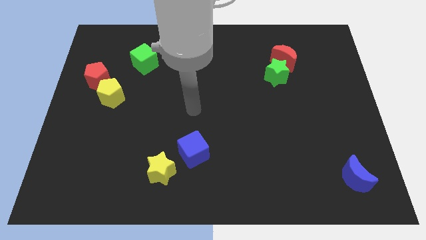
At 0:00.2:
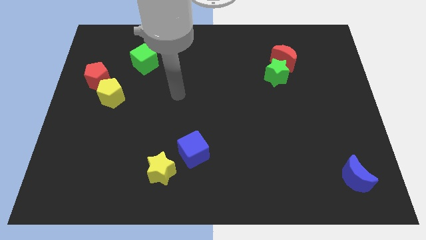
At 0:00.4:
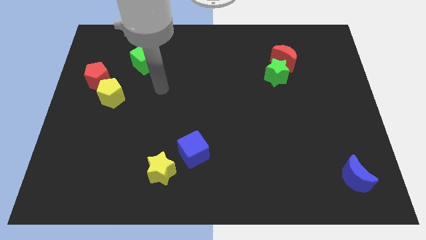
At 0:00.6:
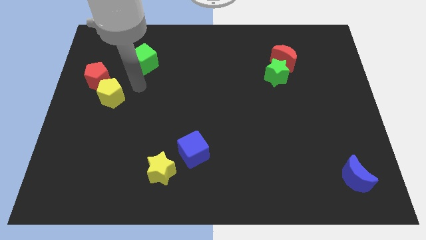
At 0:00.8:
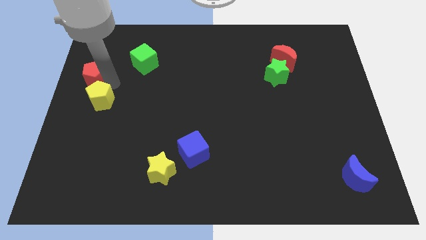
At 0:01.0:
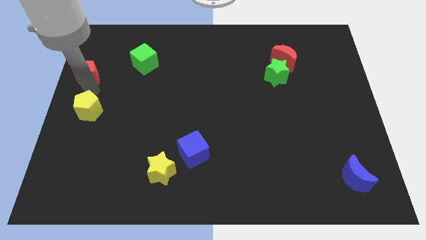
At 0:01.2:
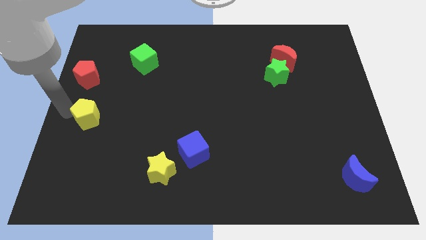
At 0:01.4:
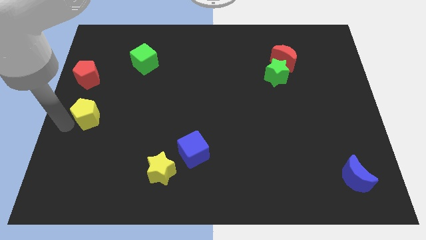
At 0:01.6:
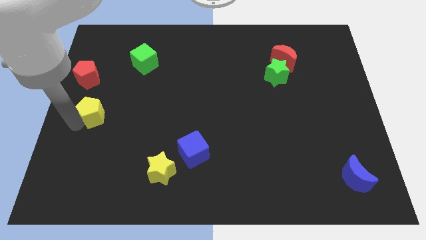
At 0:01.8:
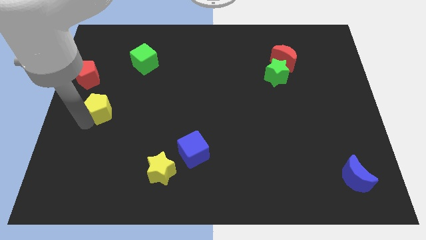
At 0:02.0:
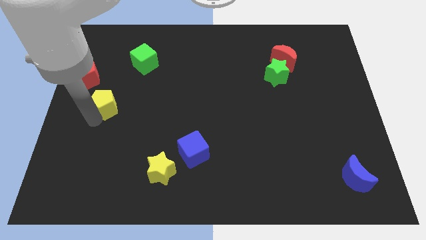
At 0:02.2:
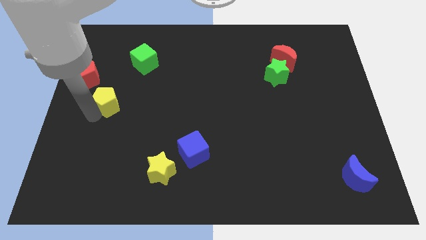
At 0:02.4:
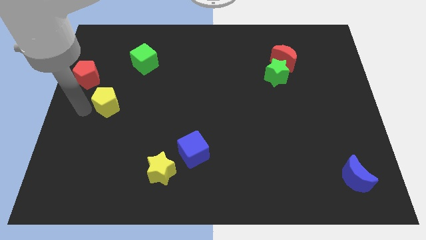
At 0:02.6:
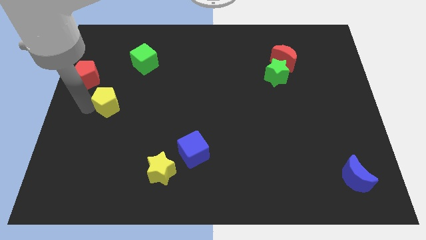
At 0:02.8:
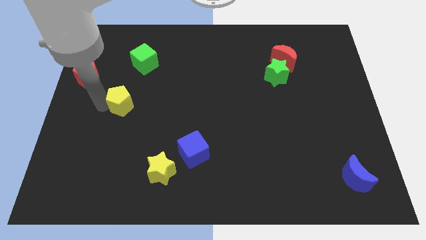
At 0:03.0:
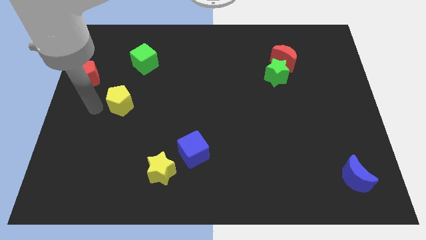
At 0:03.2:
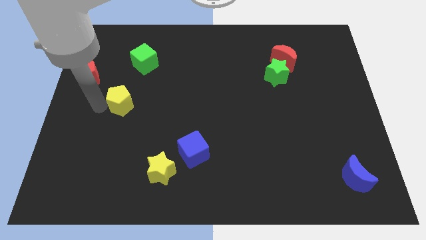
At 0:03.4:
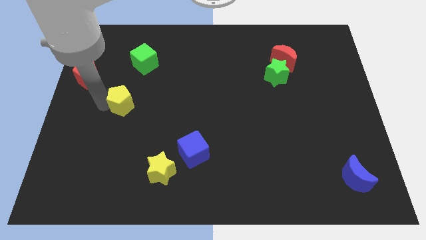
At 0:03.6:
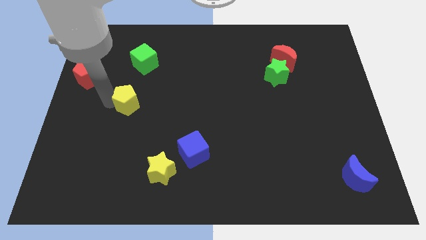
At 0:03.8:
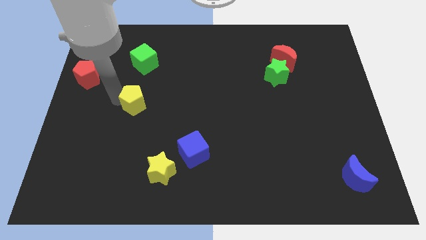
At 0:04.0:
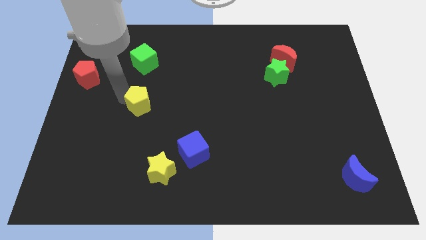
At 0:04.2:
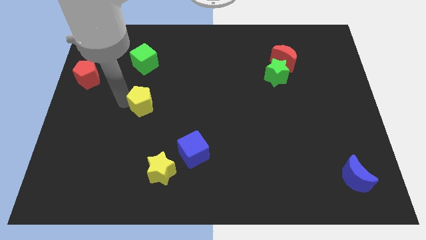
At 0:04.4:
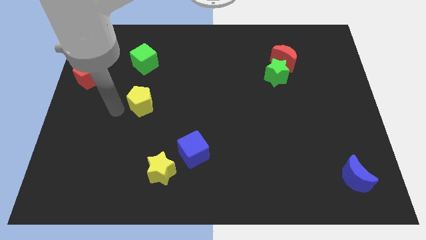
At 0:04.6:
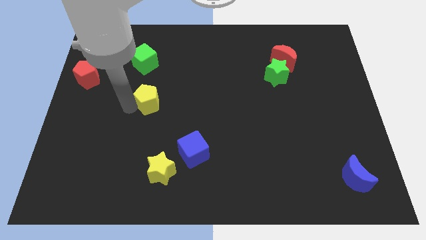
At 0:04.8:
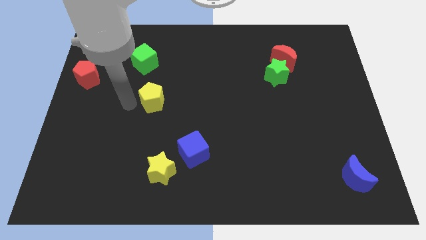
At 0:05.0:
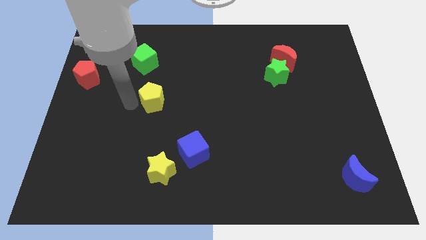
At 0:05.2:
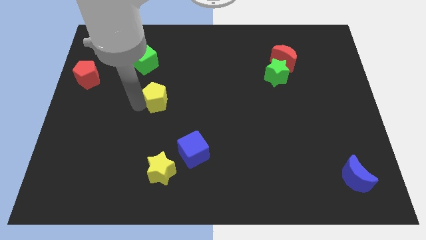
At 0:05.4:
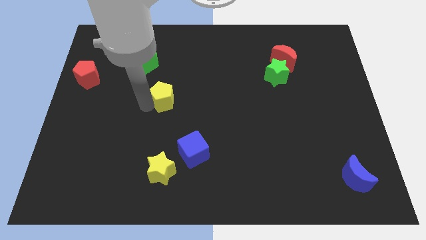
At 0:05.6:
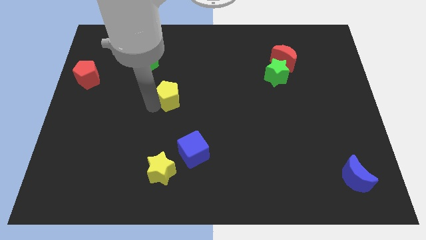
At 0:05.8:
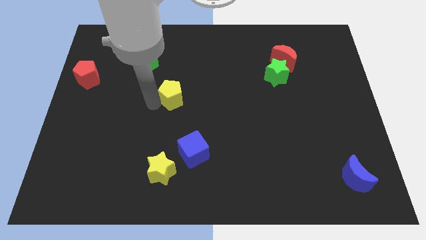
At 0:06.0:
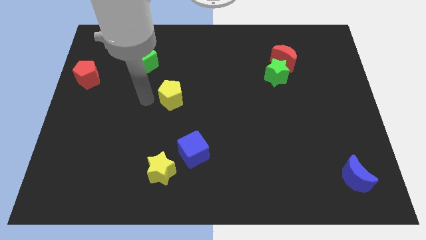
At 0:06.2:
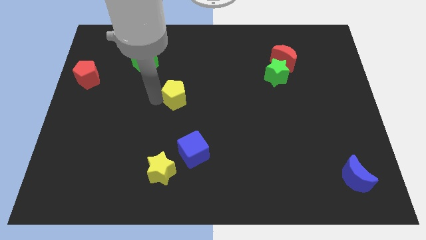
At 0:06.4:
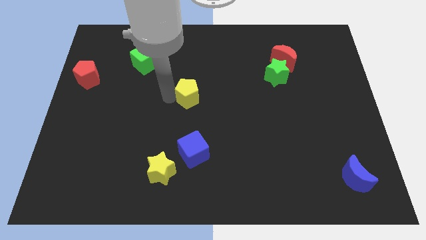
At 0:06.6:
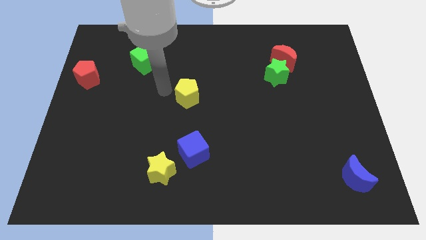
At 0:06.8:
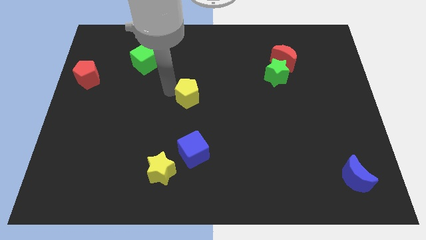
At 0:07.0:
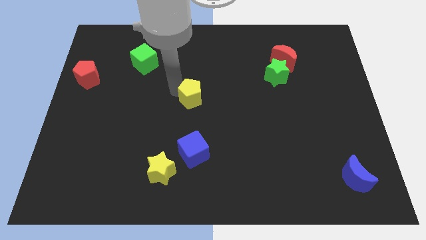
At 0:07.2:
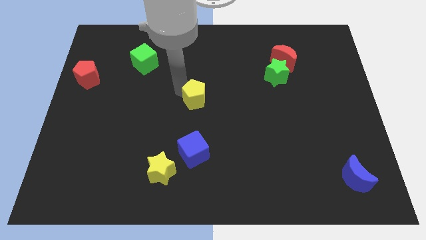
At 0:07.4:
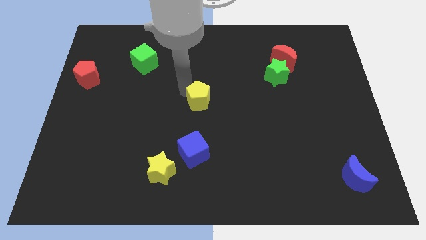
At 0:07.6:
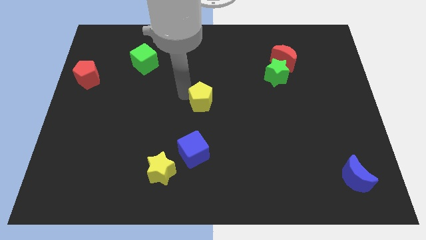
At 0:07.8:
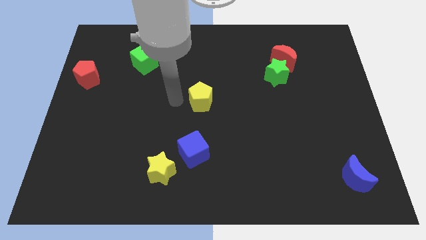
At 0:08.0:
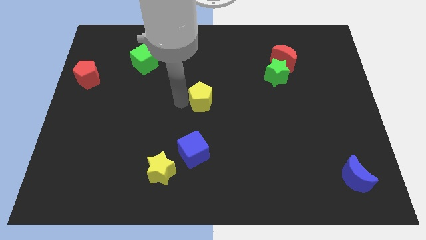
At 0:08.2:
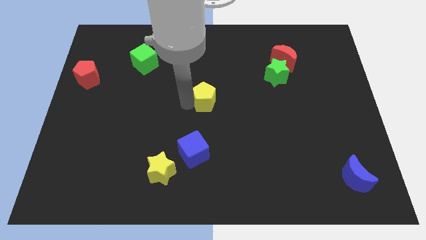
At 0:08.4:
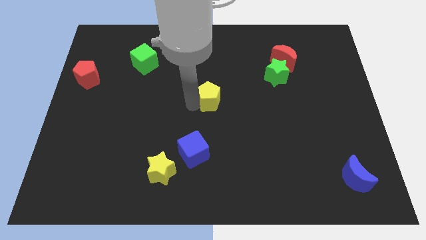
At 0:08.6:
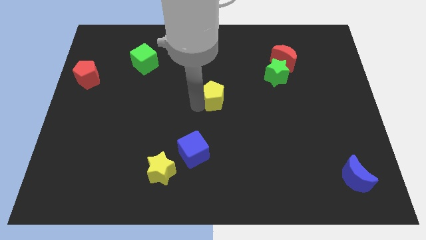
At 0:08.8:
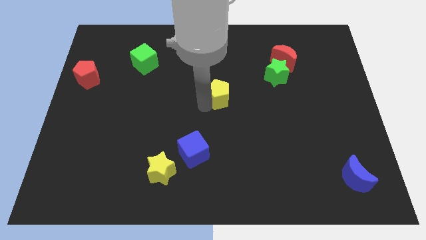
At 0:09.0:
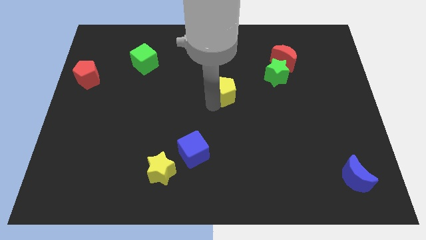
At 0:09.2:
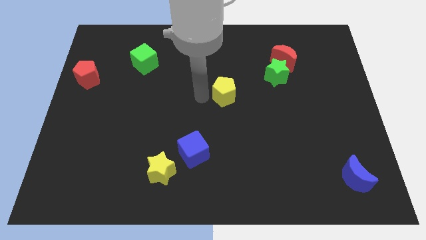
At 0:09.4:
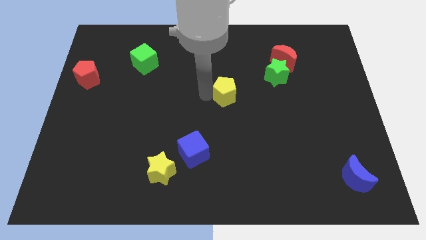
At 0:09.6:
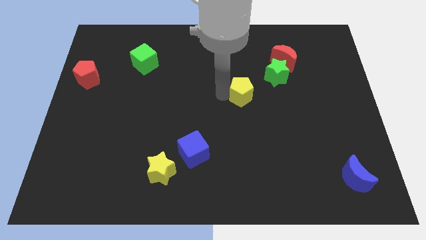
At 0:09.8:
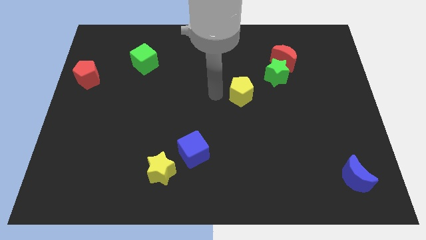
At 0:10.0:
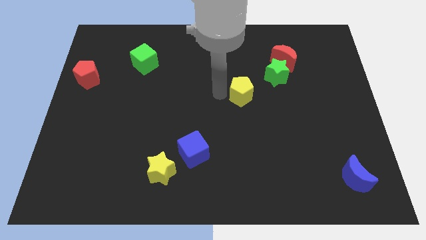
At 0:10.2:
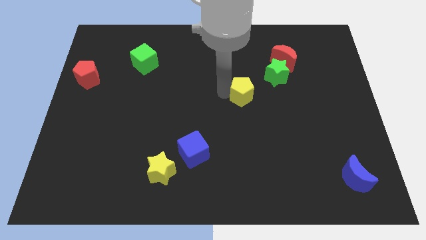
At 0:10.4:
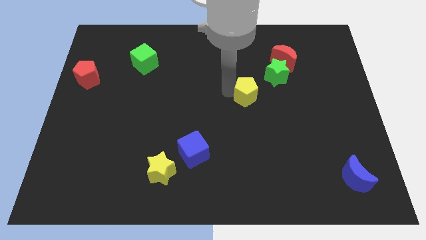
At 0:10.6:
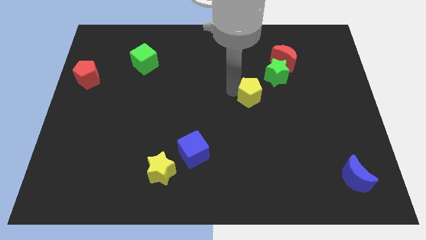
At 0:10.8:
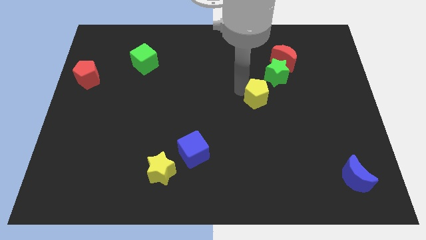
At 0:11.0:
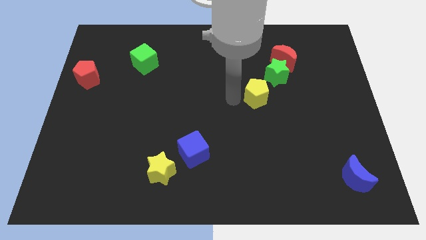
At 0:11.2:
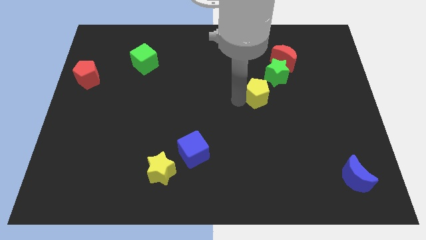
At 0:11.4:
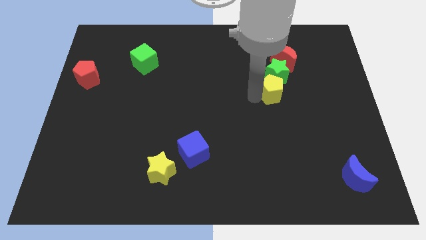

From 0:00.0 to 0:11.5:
push the yellow pentagon to the bottom of the red moon

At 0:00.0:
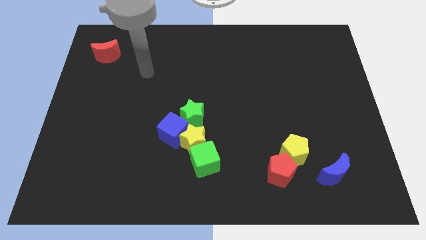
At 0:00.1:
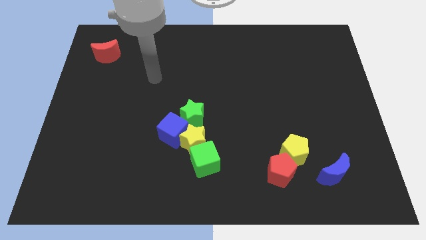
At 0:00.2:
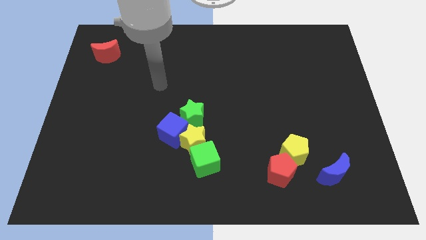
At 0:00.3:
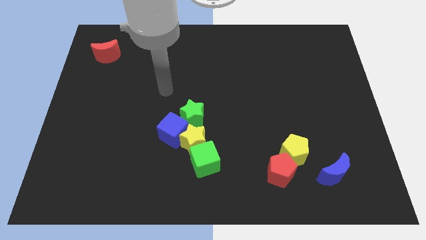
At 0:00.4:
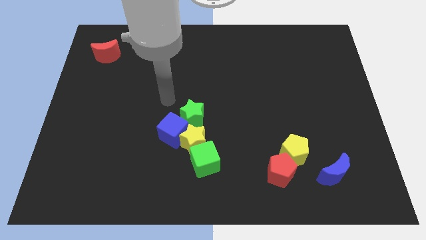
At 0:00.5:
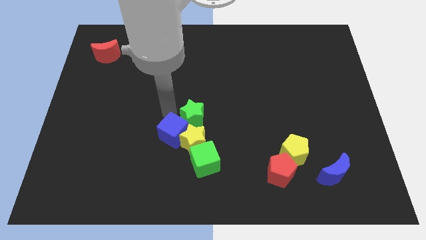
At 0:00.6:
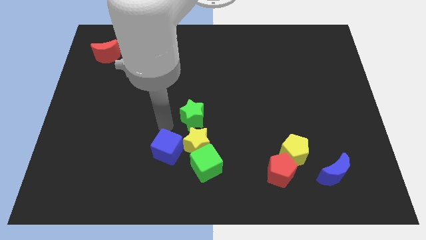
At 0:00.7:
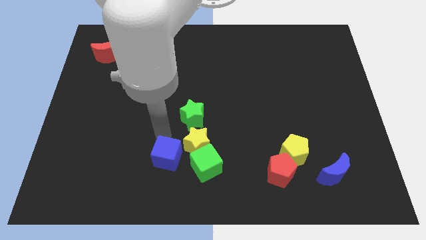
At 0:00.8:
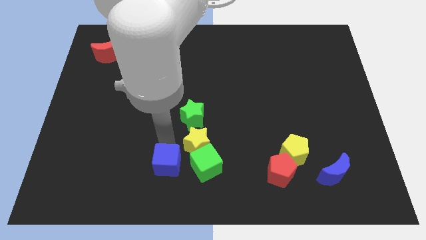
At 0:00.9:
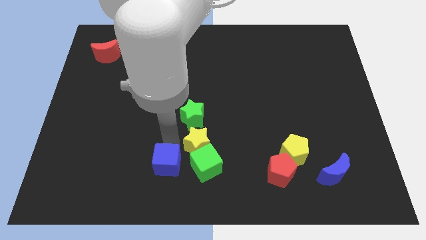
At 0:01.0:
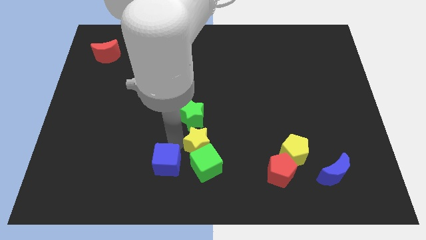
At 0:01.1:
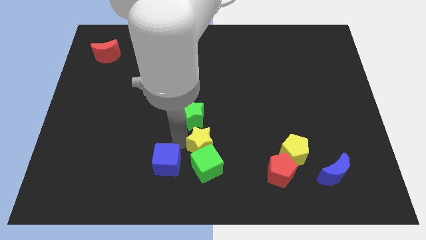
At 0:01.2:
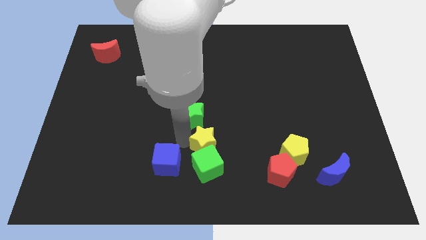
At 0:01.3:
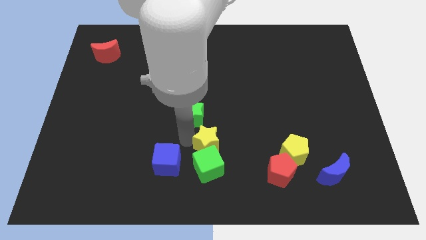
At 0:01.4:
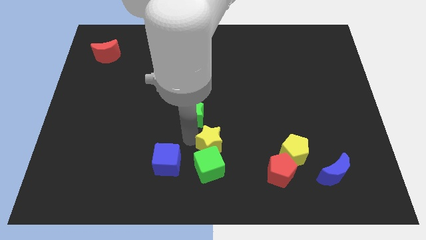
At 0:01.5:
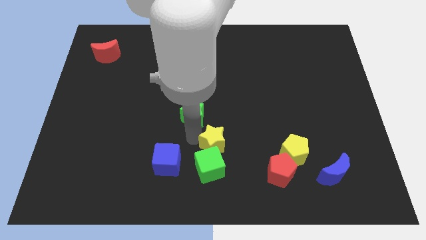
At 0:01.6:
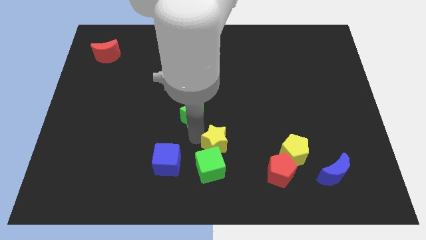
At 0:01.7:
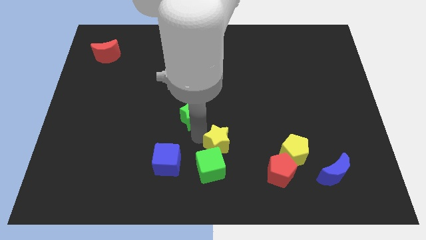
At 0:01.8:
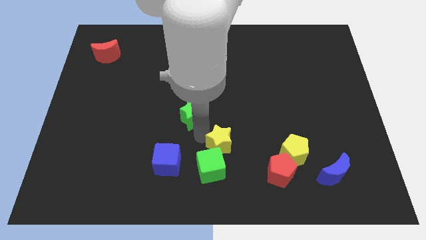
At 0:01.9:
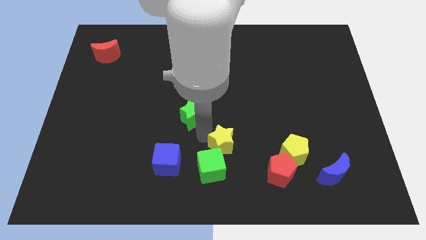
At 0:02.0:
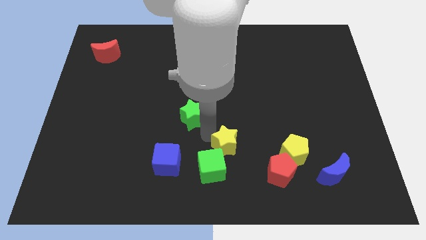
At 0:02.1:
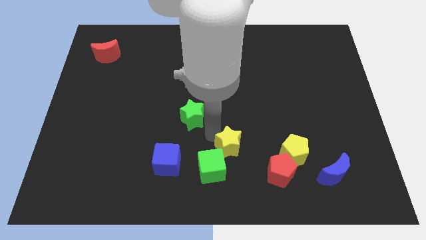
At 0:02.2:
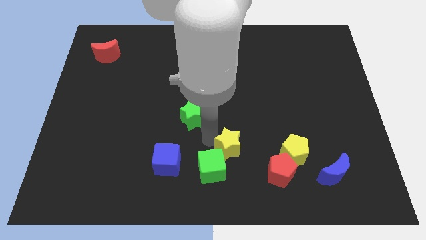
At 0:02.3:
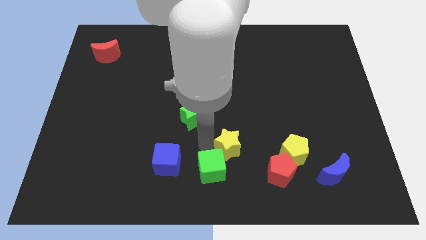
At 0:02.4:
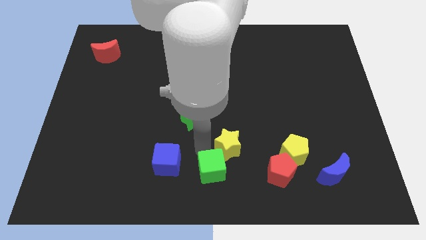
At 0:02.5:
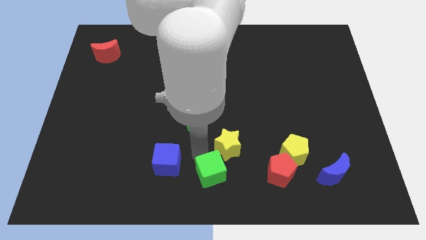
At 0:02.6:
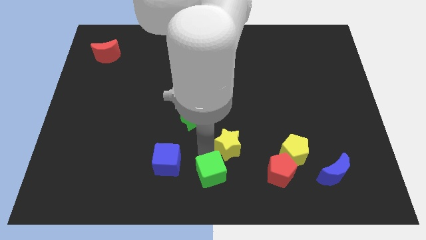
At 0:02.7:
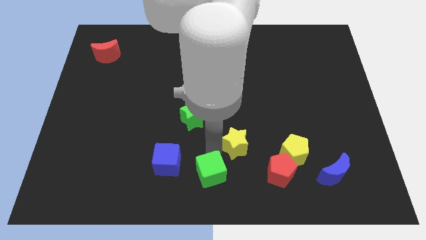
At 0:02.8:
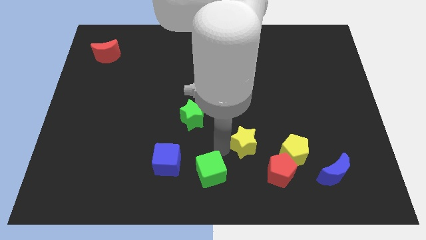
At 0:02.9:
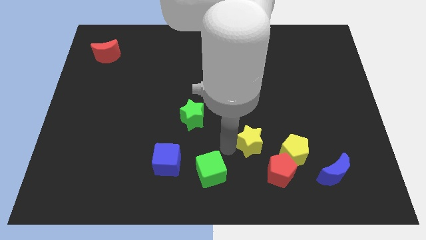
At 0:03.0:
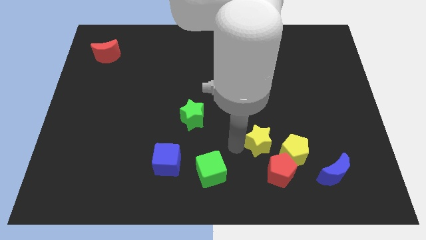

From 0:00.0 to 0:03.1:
push the yellow star to the top of the red pentagon
